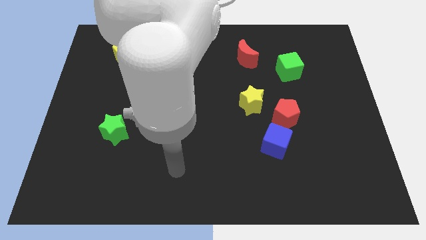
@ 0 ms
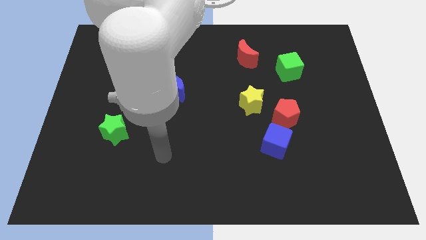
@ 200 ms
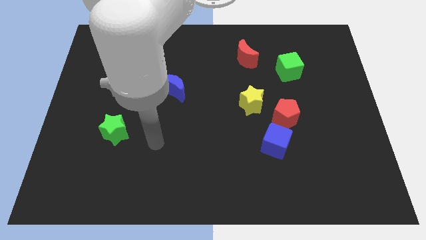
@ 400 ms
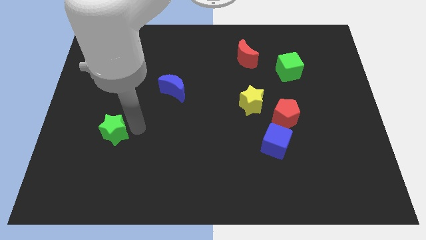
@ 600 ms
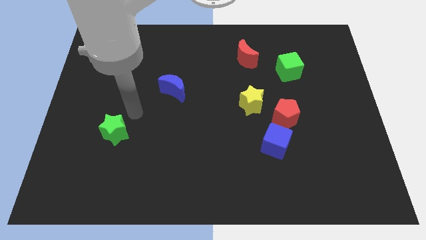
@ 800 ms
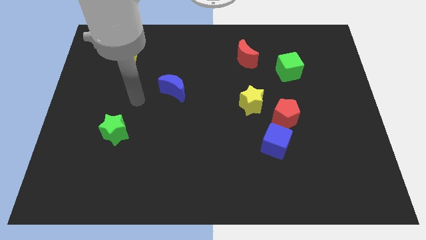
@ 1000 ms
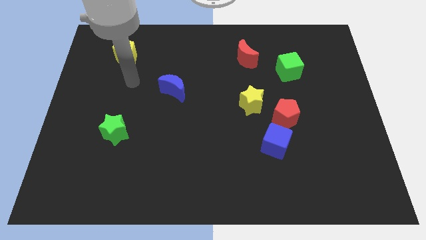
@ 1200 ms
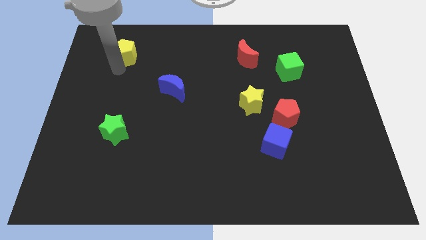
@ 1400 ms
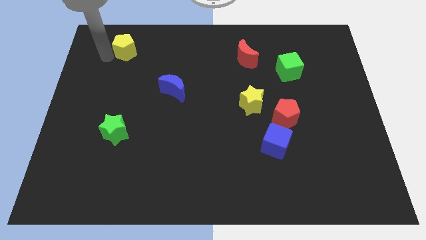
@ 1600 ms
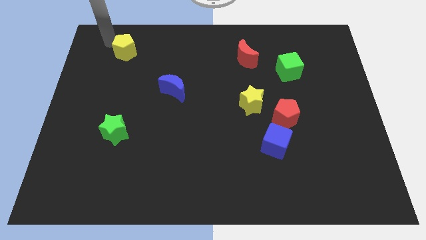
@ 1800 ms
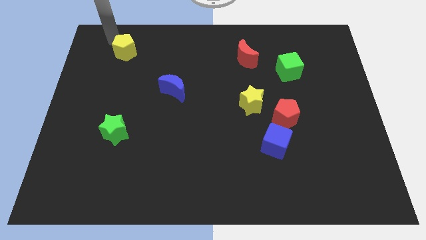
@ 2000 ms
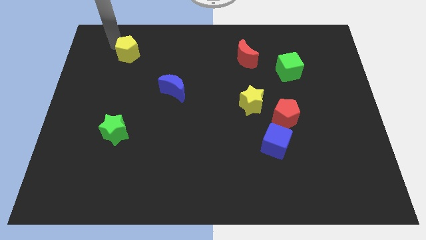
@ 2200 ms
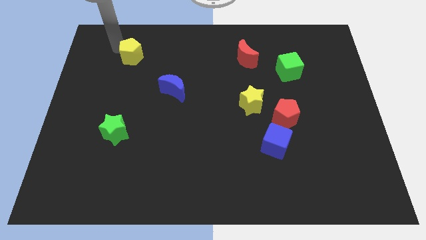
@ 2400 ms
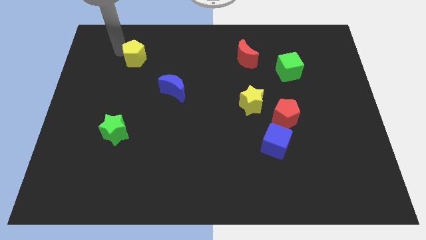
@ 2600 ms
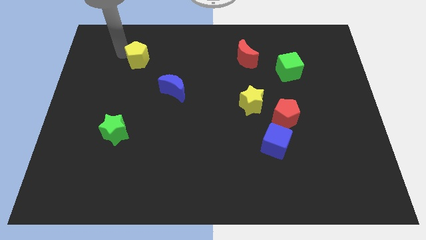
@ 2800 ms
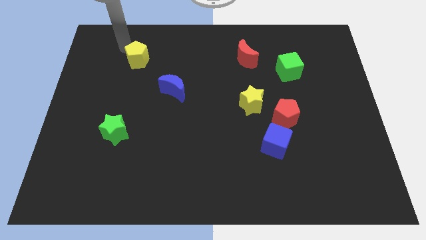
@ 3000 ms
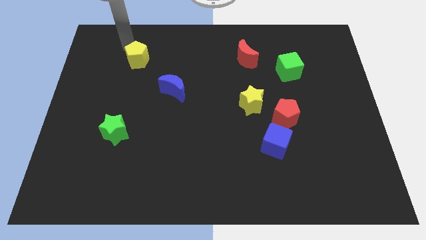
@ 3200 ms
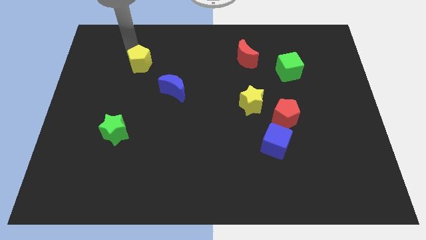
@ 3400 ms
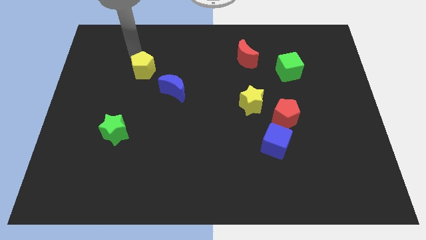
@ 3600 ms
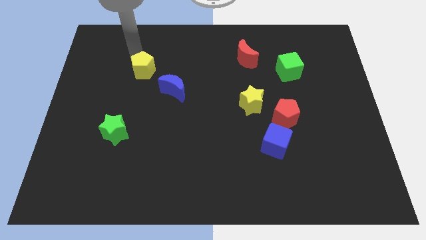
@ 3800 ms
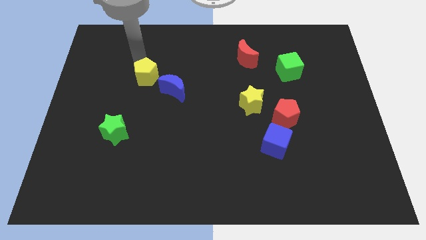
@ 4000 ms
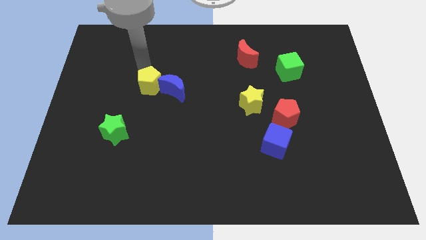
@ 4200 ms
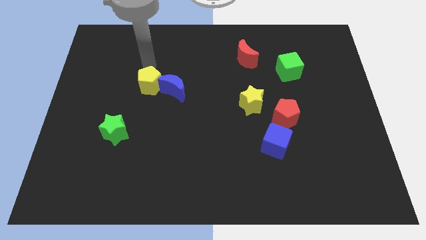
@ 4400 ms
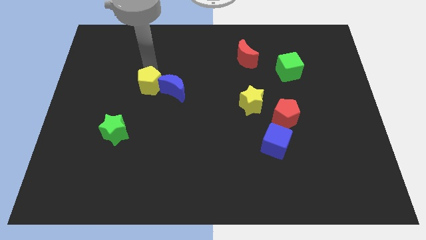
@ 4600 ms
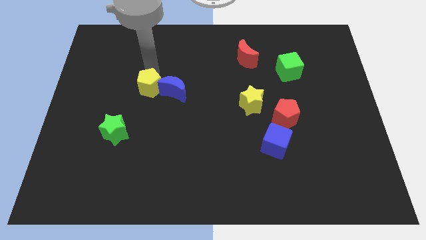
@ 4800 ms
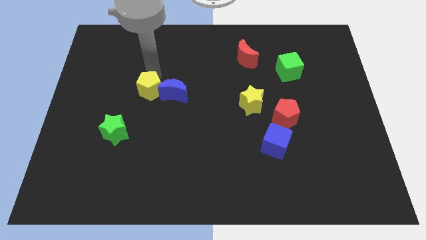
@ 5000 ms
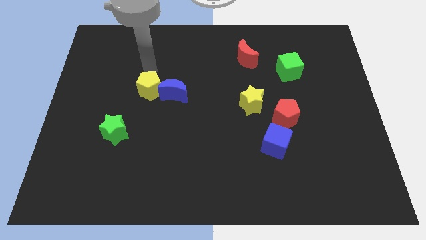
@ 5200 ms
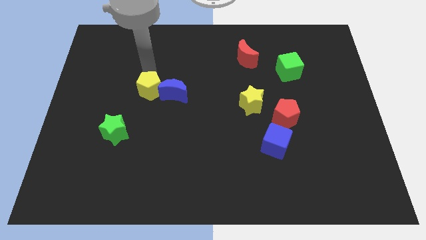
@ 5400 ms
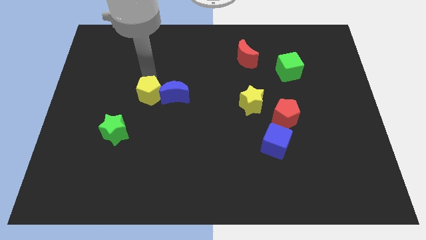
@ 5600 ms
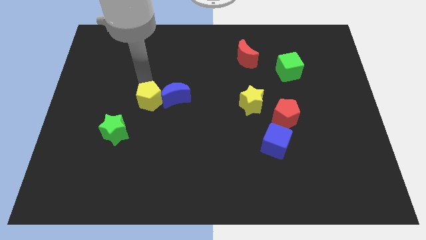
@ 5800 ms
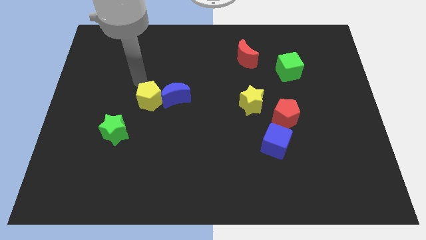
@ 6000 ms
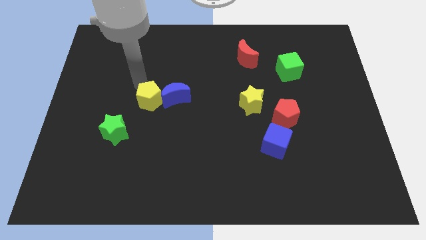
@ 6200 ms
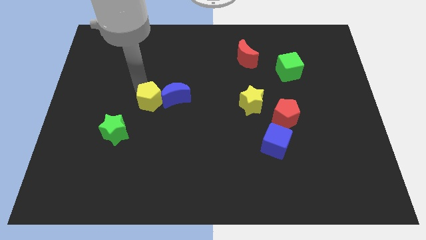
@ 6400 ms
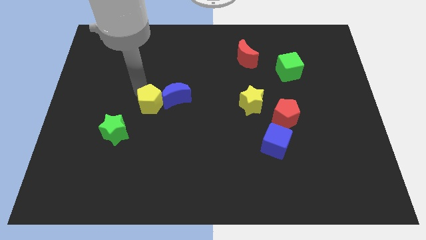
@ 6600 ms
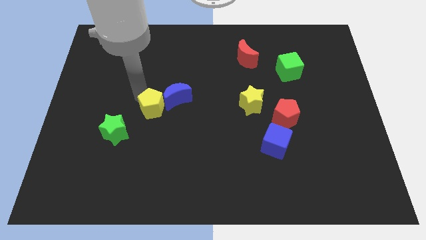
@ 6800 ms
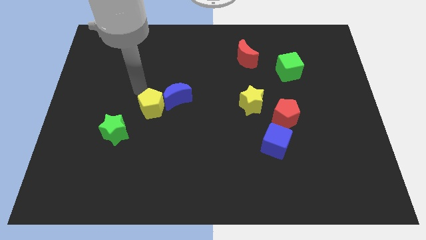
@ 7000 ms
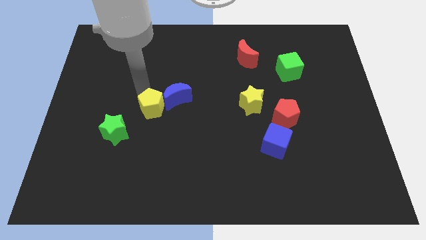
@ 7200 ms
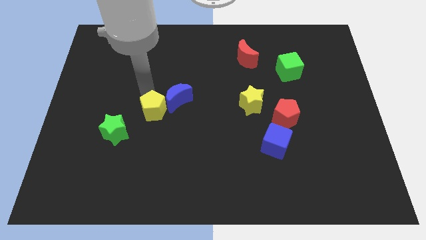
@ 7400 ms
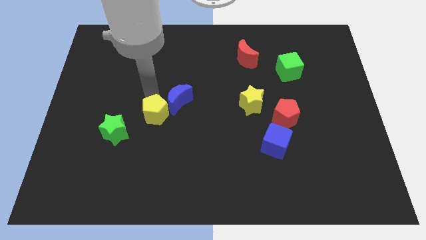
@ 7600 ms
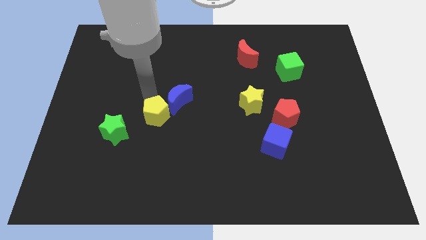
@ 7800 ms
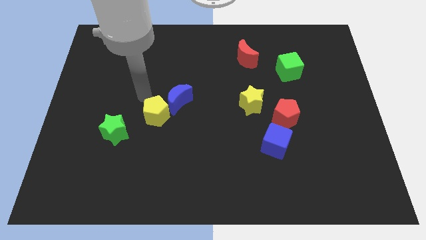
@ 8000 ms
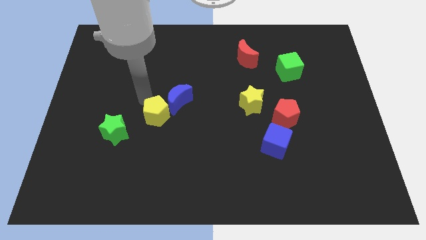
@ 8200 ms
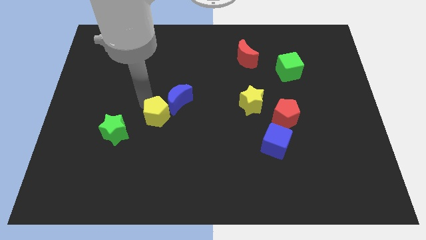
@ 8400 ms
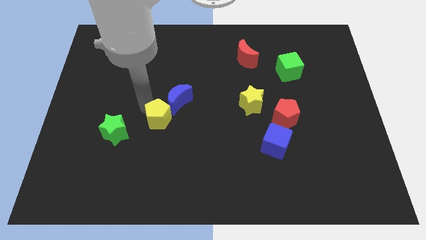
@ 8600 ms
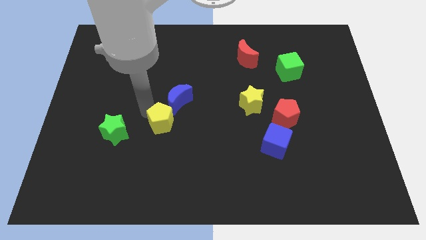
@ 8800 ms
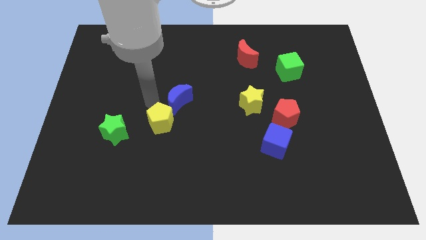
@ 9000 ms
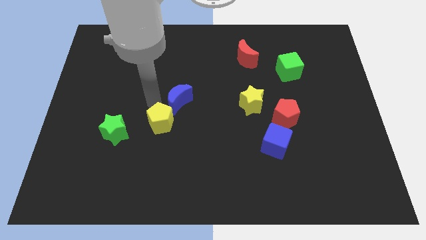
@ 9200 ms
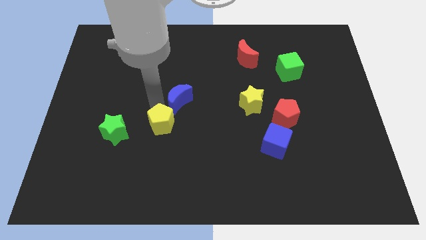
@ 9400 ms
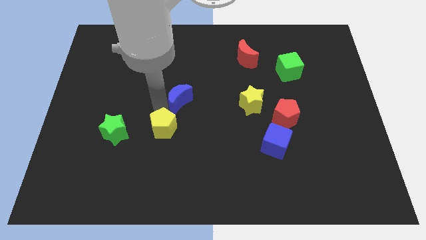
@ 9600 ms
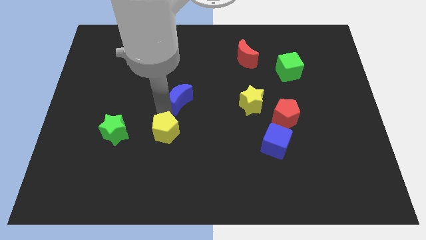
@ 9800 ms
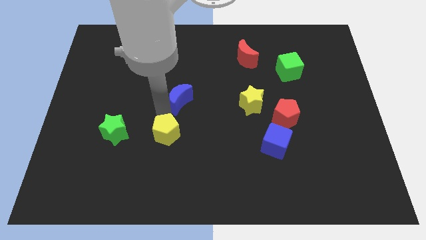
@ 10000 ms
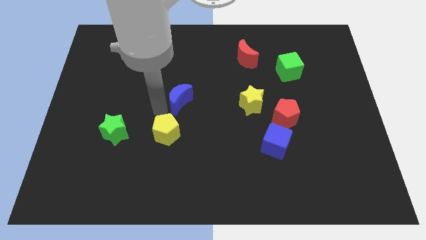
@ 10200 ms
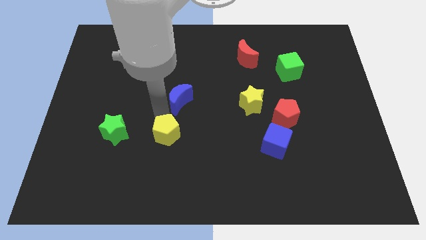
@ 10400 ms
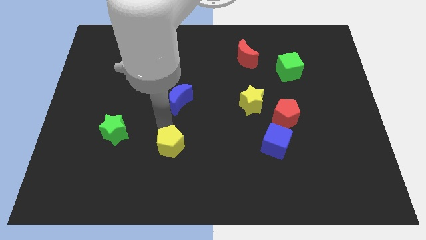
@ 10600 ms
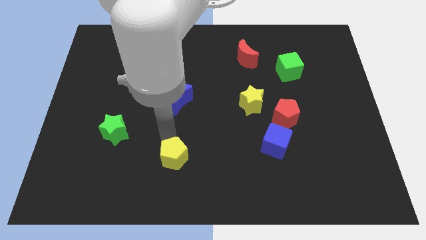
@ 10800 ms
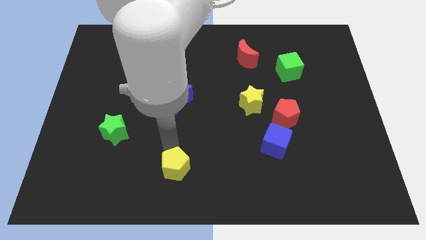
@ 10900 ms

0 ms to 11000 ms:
move the yellow pentagon to the bottom

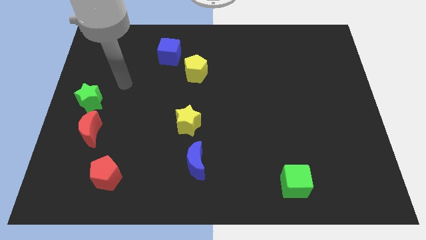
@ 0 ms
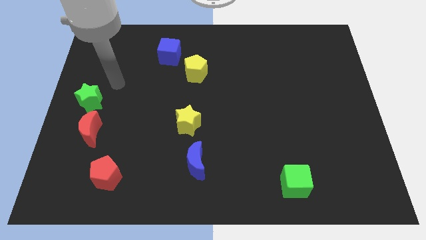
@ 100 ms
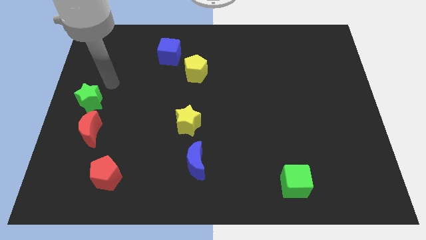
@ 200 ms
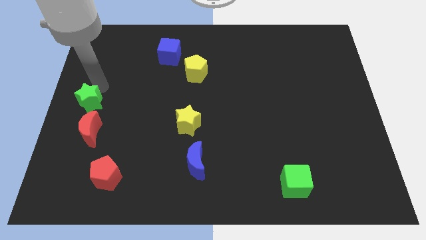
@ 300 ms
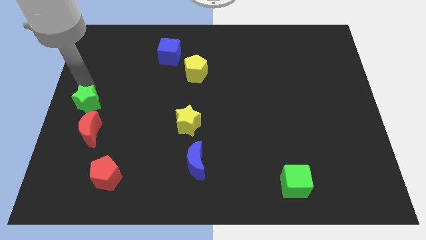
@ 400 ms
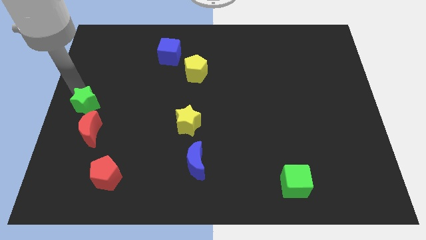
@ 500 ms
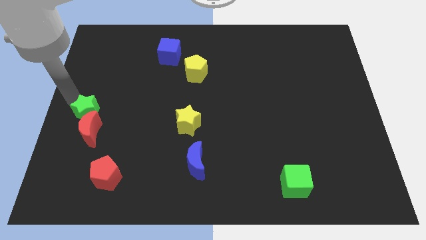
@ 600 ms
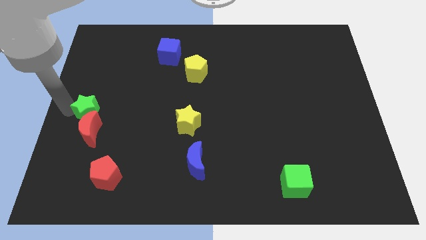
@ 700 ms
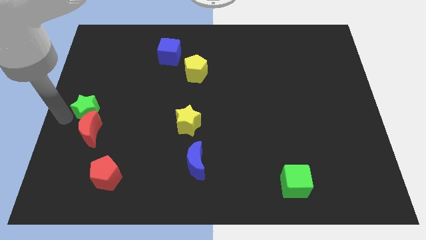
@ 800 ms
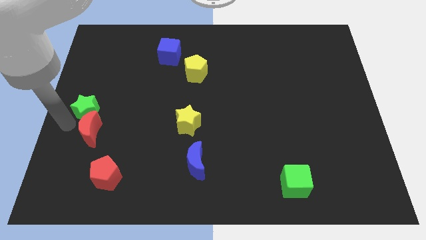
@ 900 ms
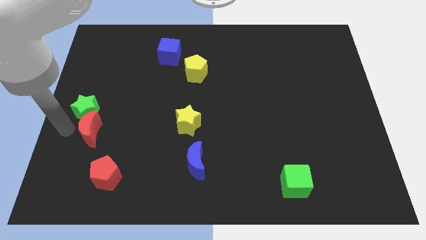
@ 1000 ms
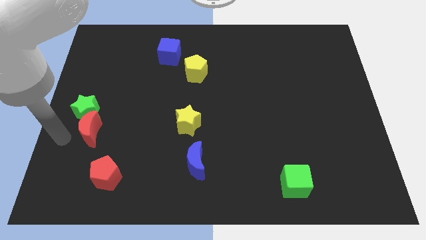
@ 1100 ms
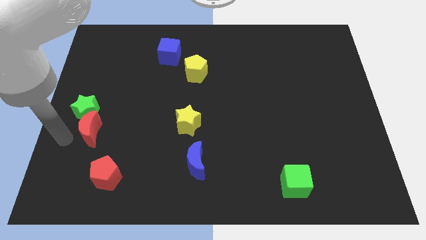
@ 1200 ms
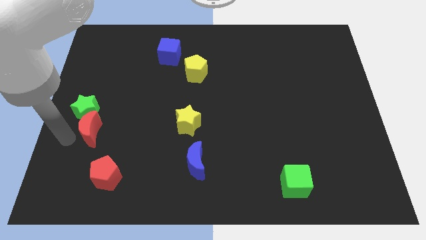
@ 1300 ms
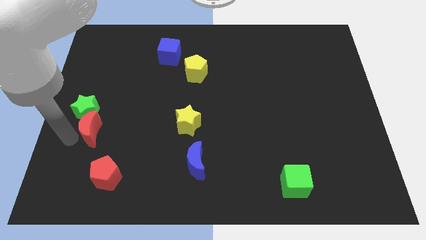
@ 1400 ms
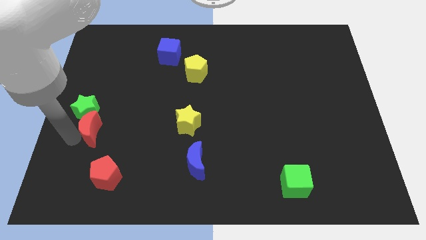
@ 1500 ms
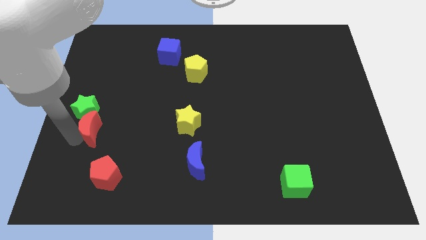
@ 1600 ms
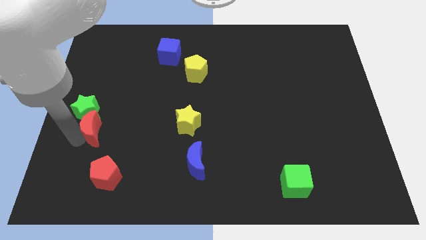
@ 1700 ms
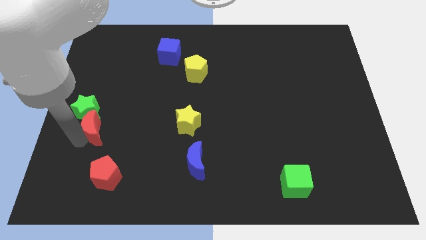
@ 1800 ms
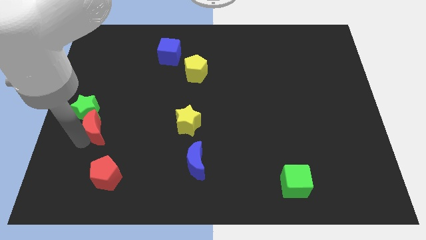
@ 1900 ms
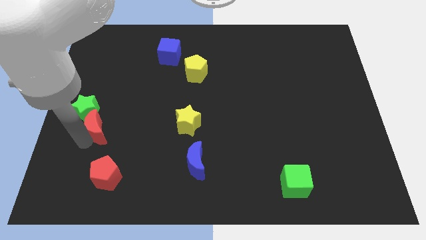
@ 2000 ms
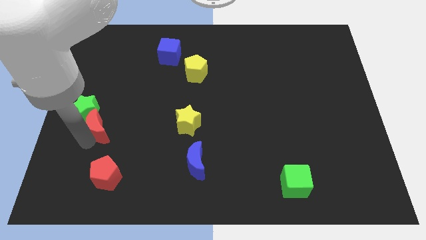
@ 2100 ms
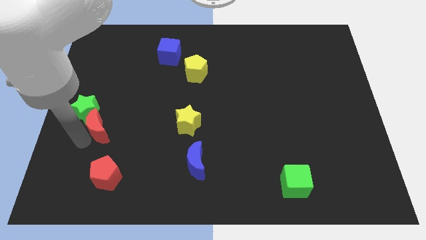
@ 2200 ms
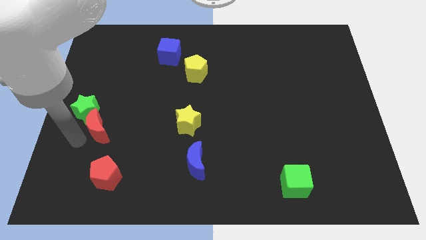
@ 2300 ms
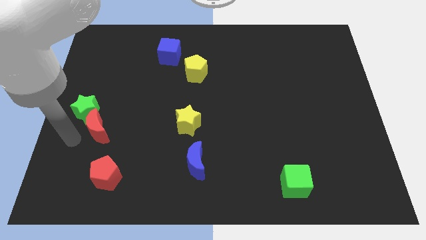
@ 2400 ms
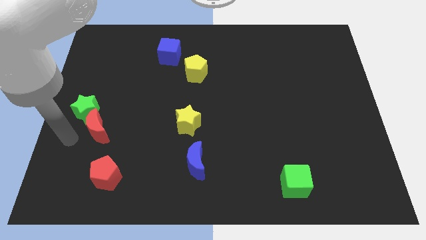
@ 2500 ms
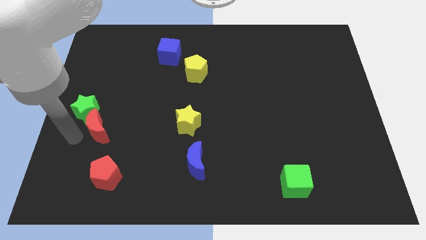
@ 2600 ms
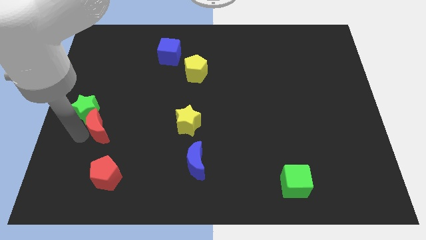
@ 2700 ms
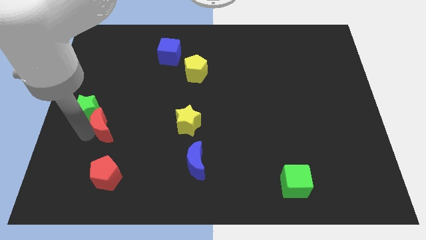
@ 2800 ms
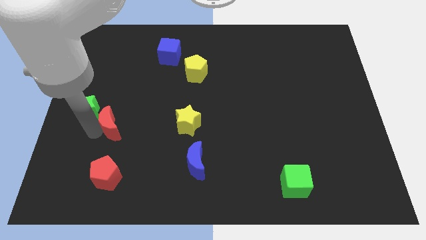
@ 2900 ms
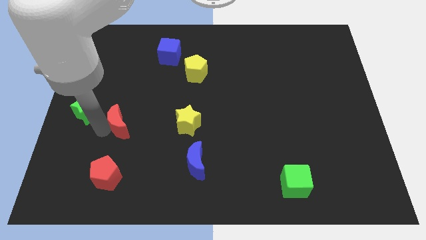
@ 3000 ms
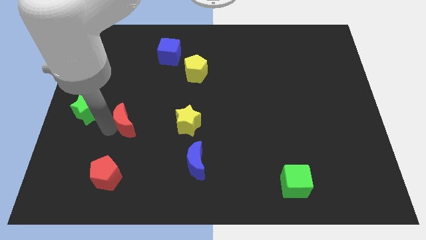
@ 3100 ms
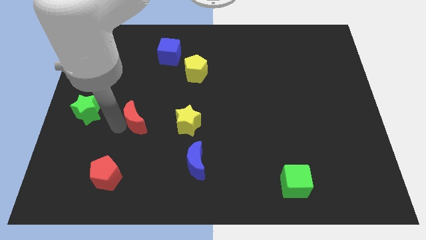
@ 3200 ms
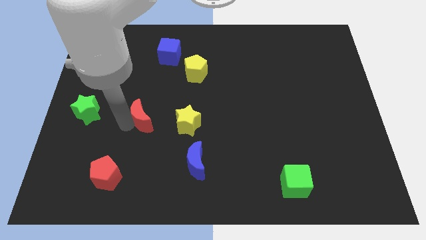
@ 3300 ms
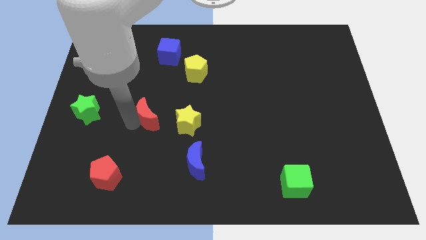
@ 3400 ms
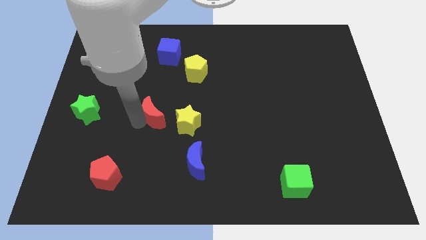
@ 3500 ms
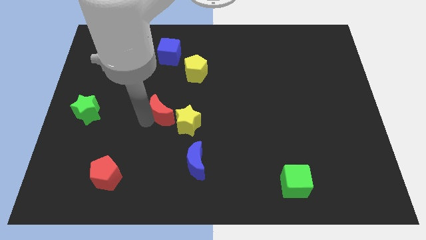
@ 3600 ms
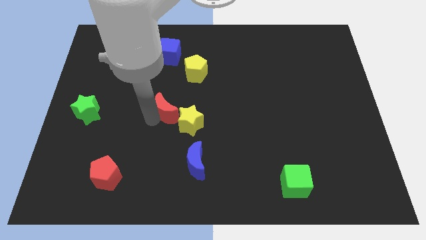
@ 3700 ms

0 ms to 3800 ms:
put the red moon to the middle of the board
